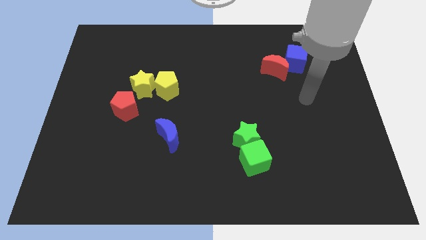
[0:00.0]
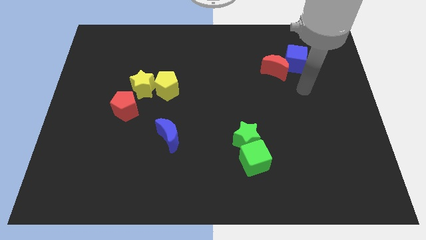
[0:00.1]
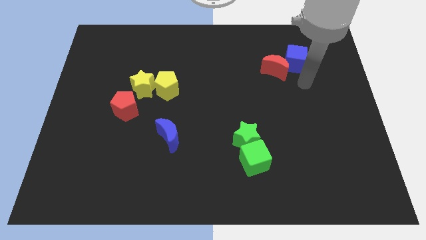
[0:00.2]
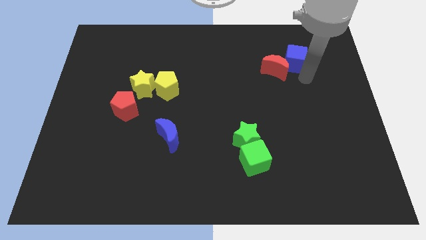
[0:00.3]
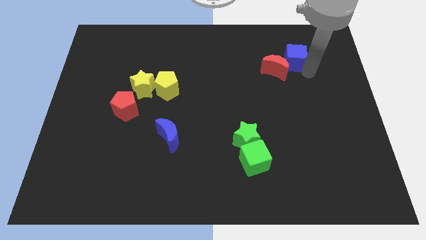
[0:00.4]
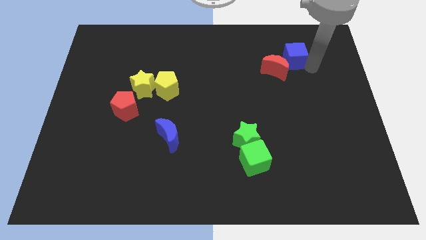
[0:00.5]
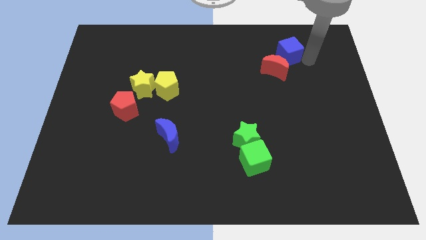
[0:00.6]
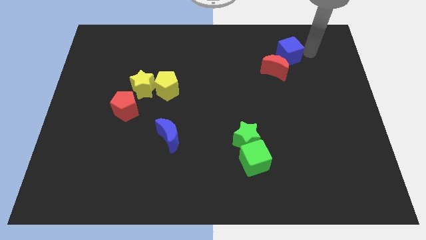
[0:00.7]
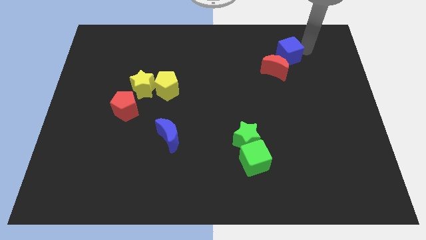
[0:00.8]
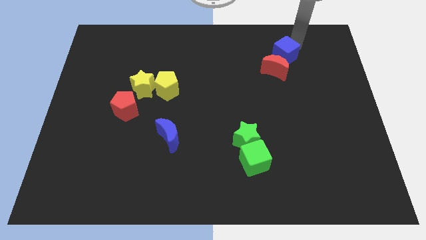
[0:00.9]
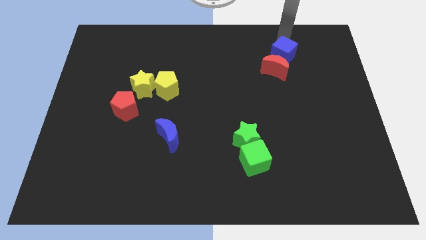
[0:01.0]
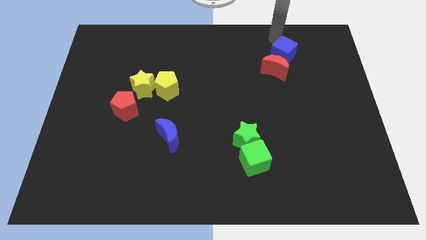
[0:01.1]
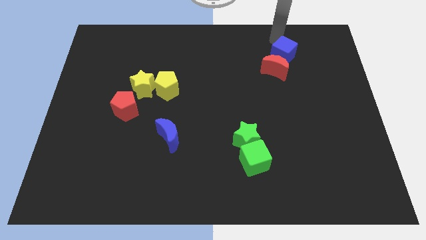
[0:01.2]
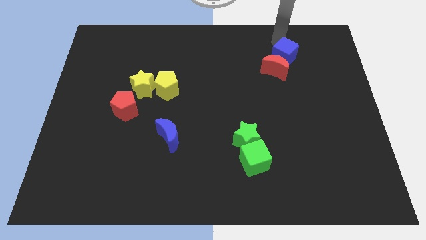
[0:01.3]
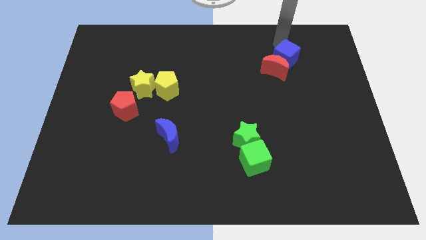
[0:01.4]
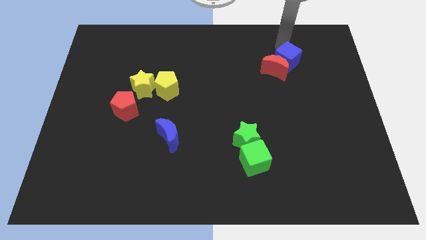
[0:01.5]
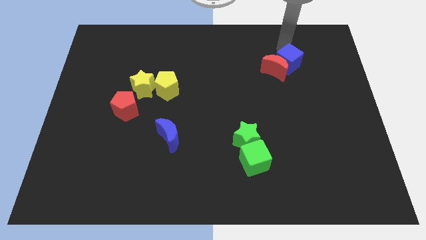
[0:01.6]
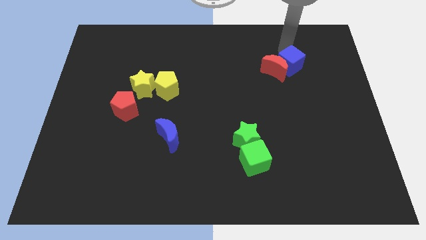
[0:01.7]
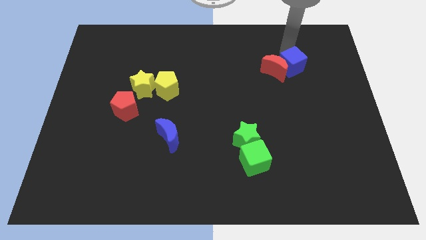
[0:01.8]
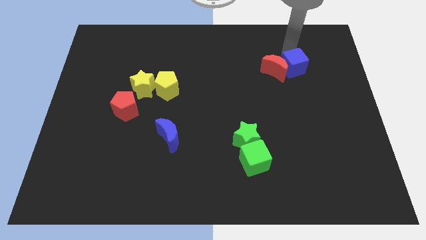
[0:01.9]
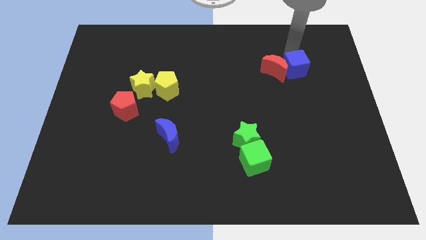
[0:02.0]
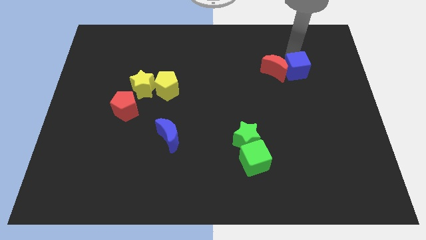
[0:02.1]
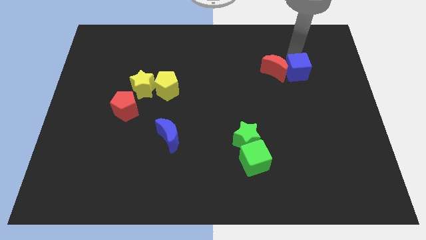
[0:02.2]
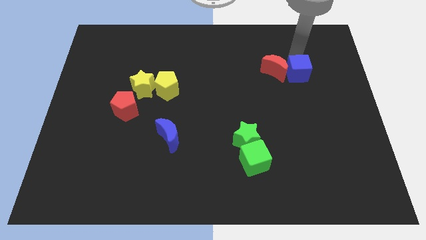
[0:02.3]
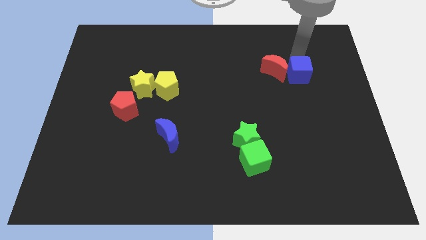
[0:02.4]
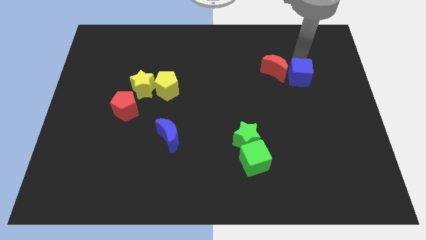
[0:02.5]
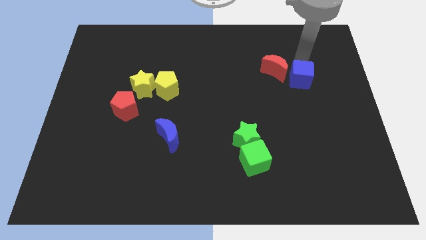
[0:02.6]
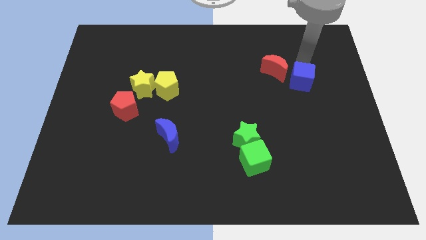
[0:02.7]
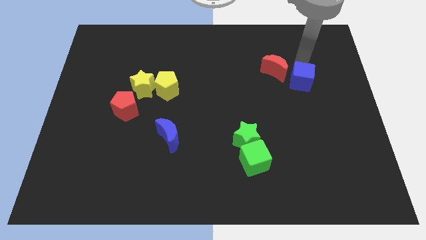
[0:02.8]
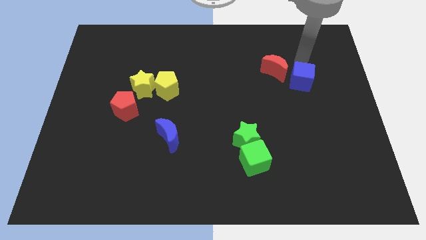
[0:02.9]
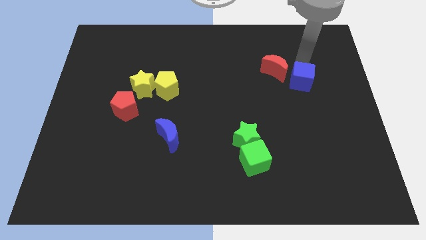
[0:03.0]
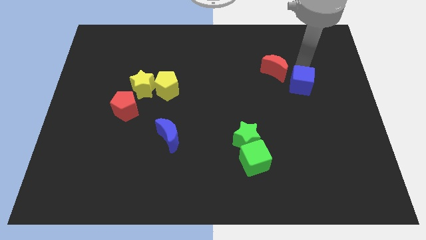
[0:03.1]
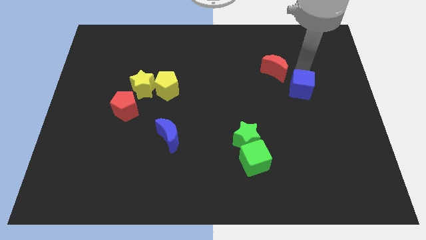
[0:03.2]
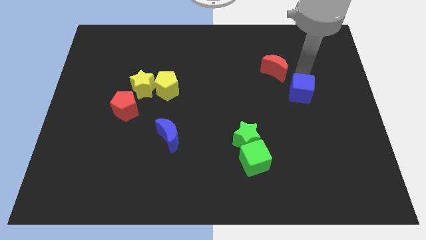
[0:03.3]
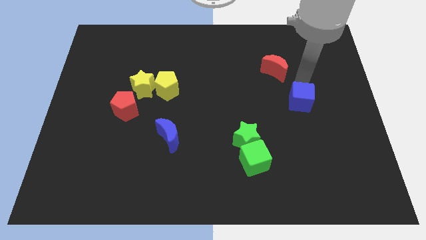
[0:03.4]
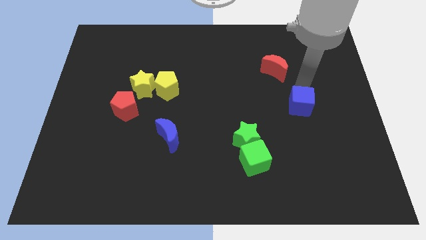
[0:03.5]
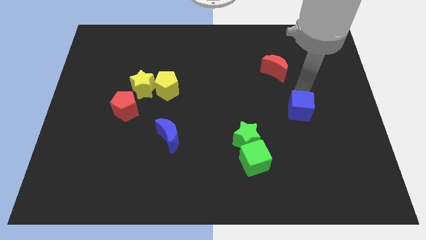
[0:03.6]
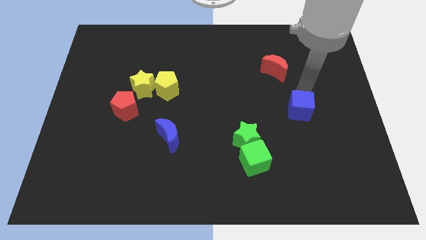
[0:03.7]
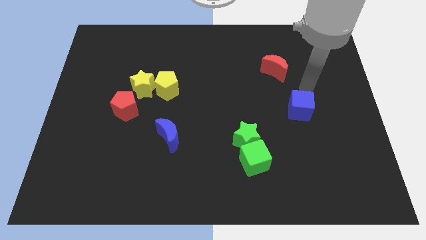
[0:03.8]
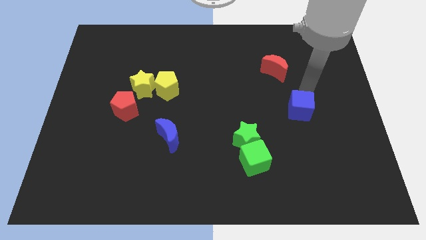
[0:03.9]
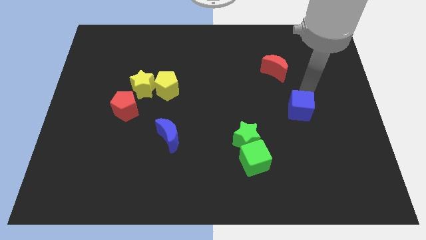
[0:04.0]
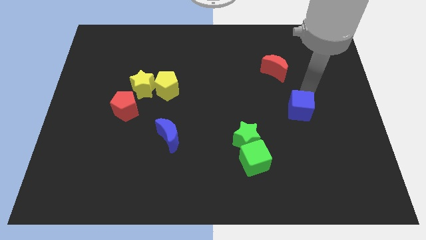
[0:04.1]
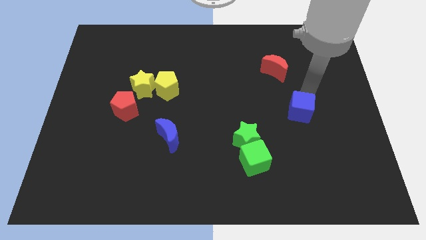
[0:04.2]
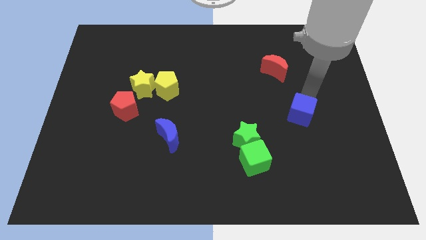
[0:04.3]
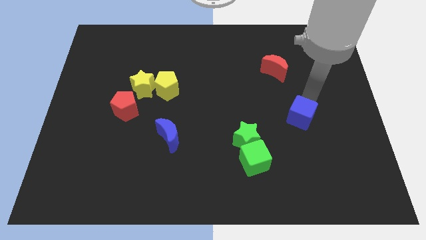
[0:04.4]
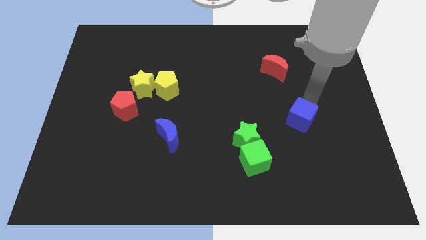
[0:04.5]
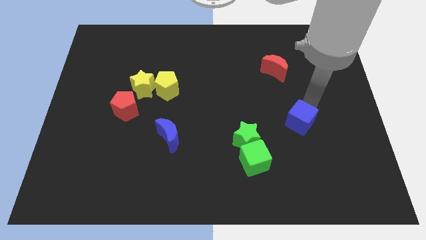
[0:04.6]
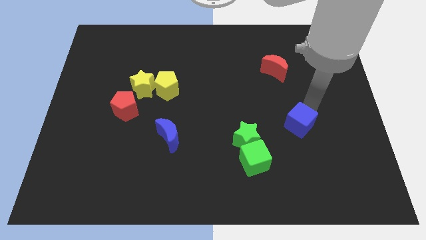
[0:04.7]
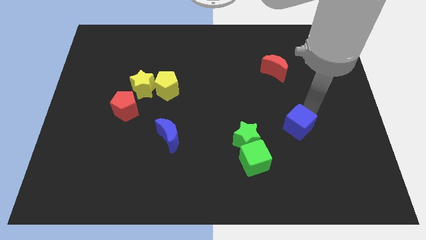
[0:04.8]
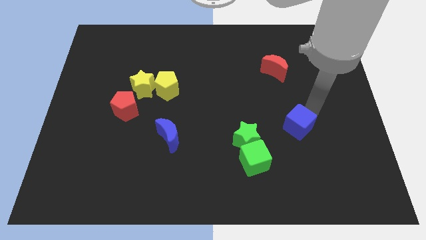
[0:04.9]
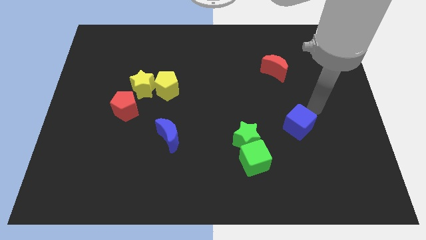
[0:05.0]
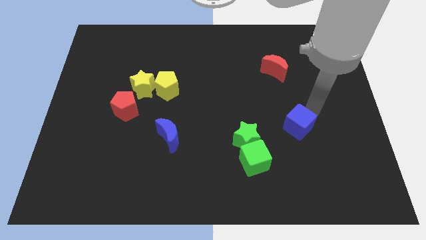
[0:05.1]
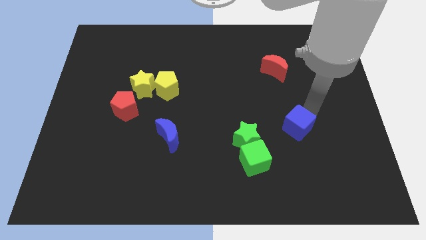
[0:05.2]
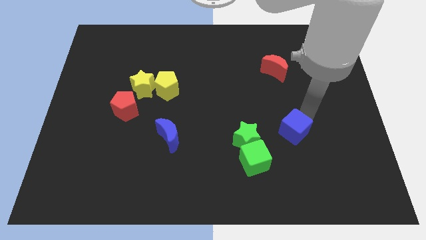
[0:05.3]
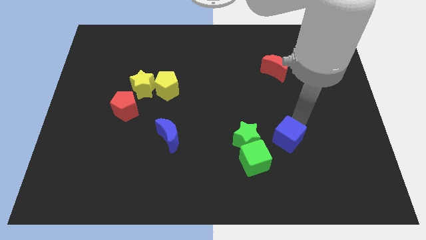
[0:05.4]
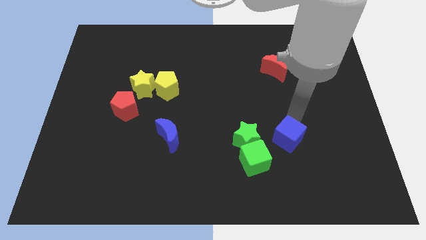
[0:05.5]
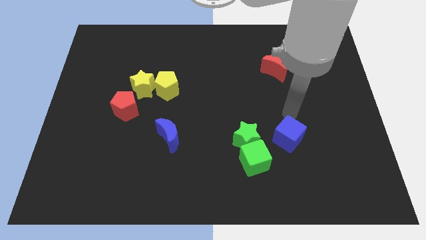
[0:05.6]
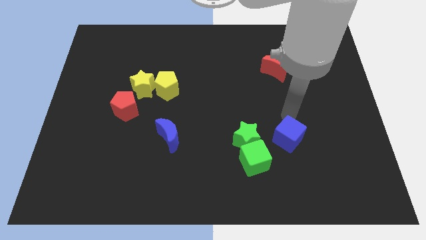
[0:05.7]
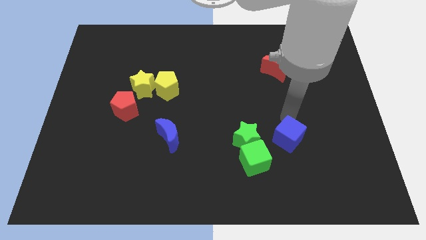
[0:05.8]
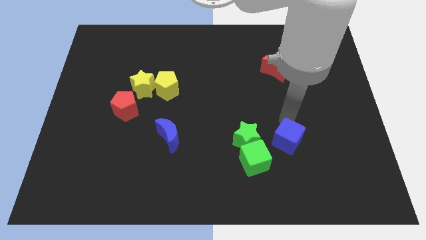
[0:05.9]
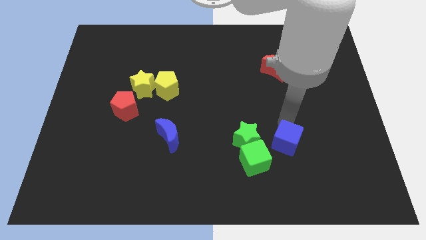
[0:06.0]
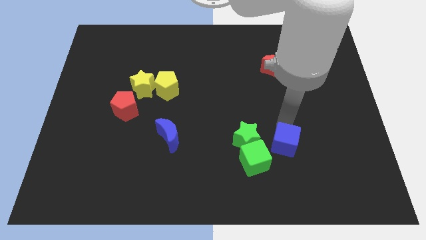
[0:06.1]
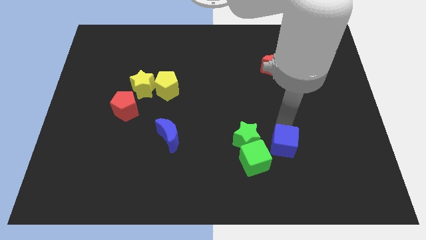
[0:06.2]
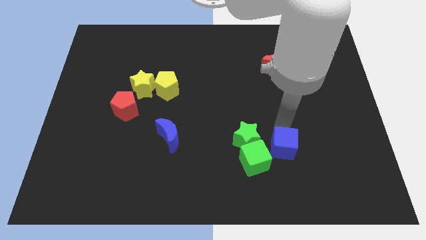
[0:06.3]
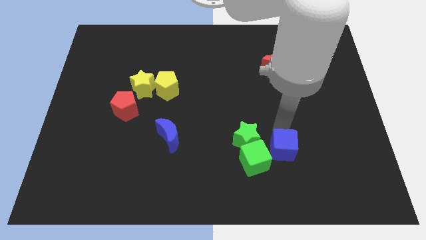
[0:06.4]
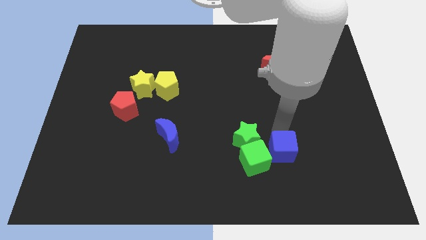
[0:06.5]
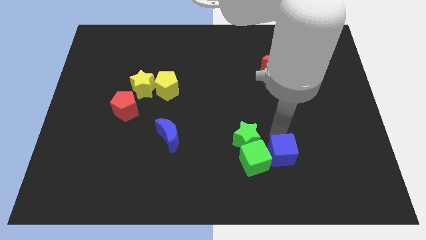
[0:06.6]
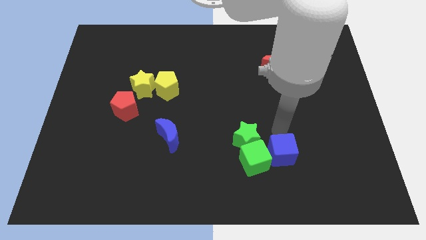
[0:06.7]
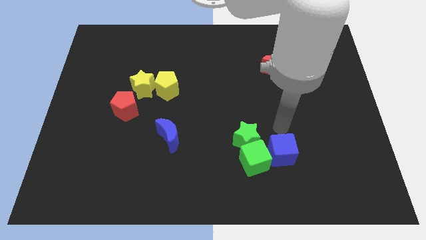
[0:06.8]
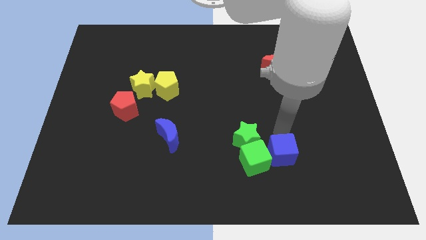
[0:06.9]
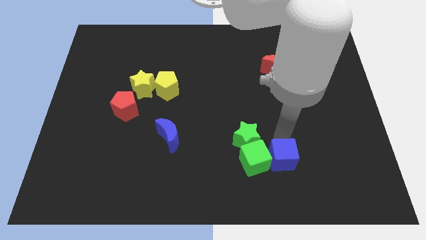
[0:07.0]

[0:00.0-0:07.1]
move the blue cube diagonally down and to the right of the green cube

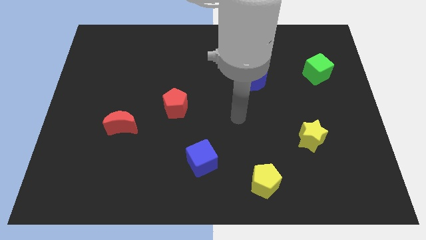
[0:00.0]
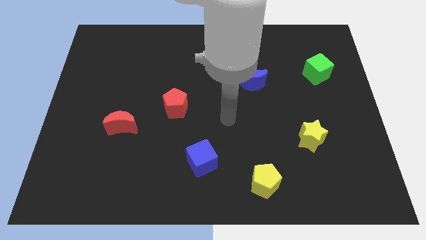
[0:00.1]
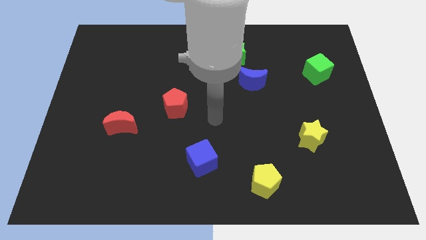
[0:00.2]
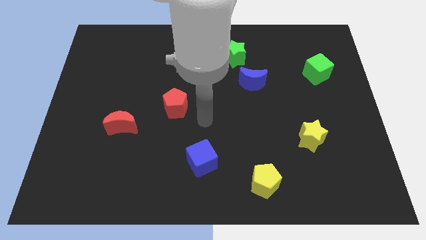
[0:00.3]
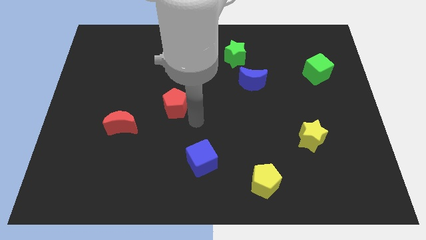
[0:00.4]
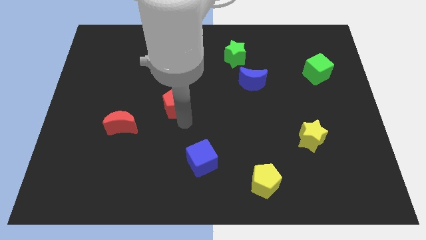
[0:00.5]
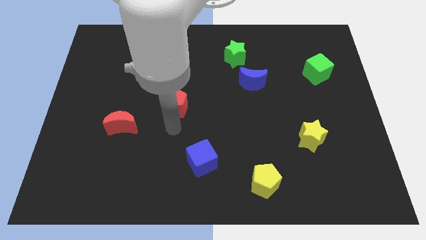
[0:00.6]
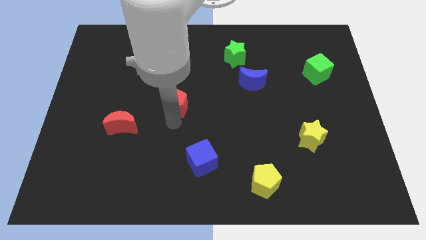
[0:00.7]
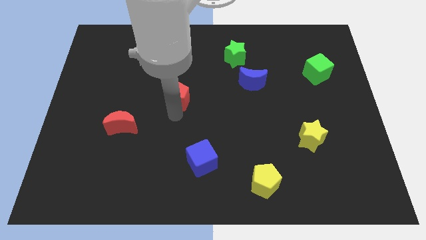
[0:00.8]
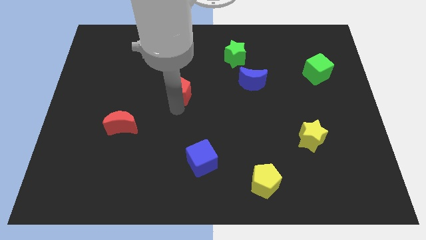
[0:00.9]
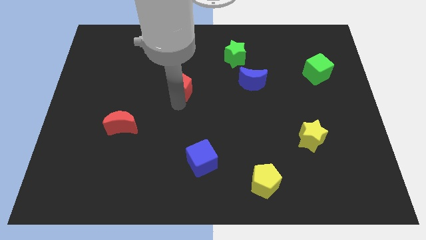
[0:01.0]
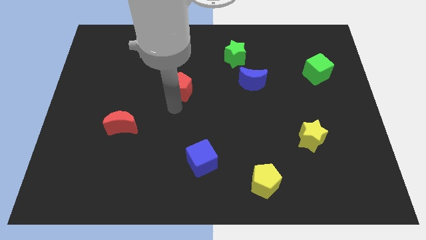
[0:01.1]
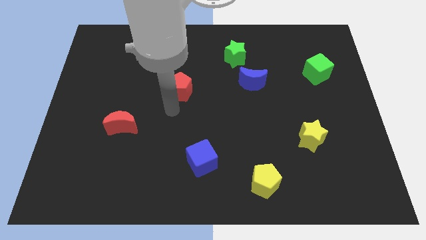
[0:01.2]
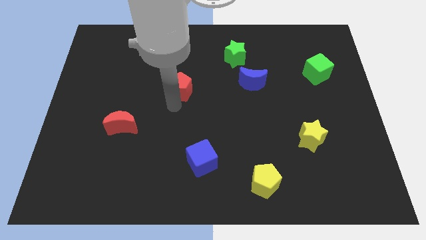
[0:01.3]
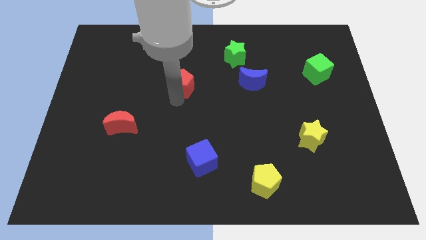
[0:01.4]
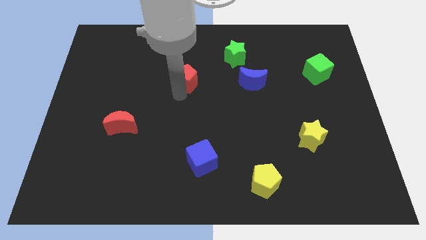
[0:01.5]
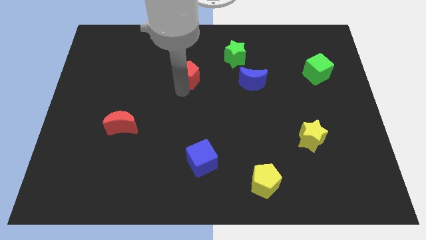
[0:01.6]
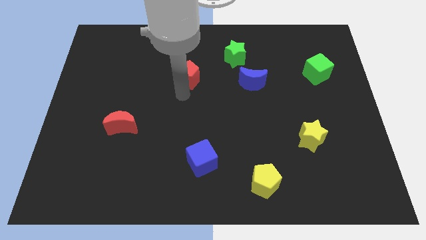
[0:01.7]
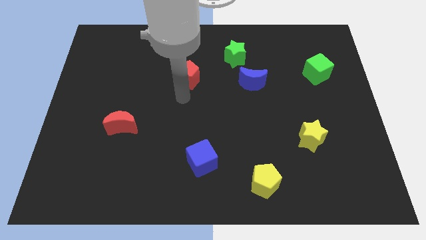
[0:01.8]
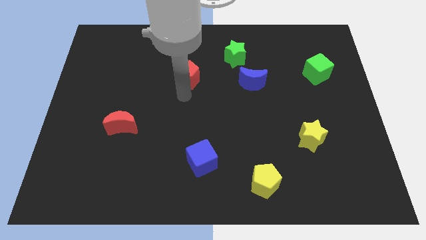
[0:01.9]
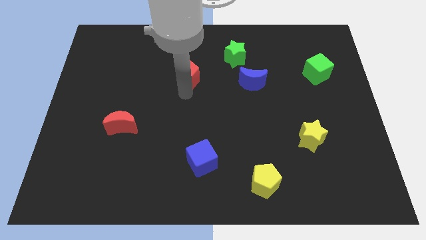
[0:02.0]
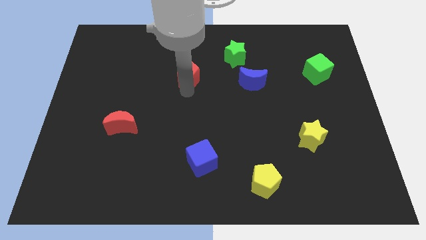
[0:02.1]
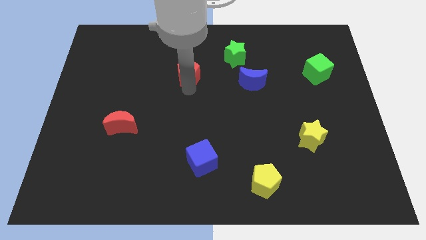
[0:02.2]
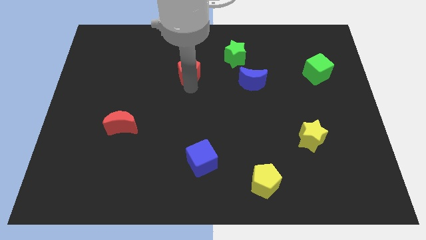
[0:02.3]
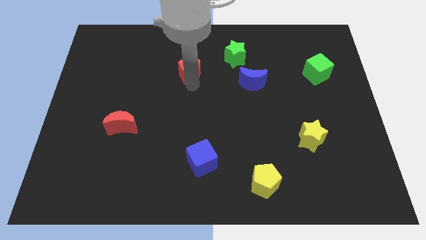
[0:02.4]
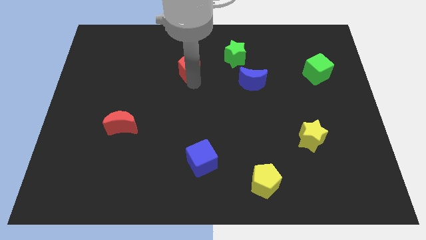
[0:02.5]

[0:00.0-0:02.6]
move the red pentagon left of the green star
